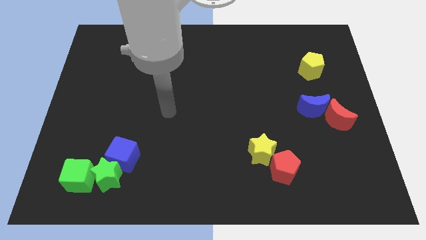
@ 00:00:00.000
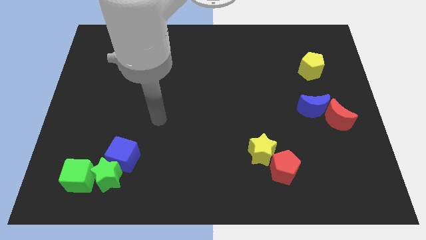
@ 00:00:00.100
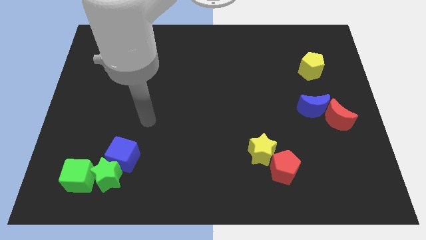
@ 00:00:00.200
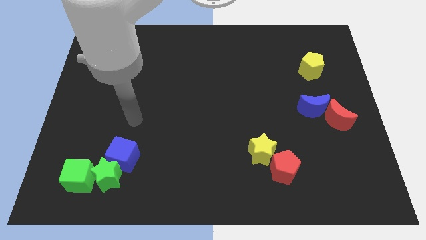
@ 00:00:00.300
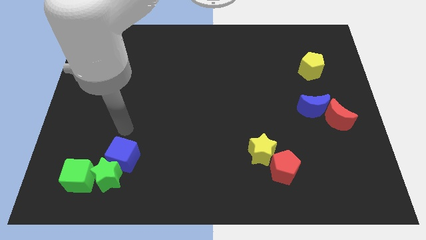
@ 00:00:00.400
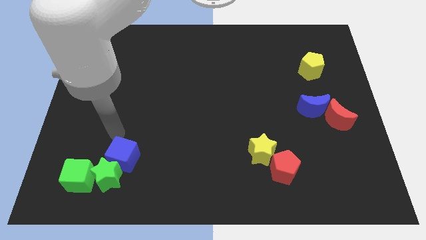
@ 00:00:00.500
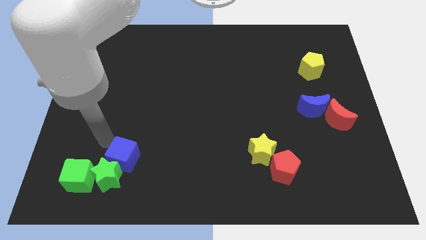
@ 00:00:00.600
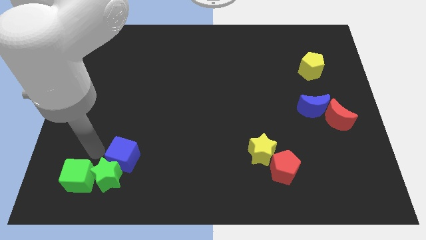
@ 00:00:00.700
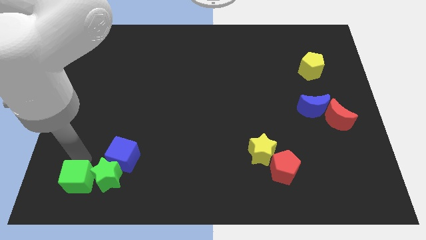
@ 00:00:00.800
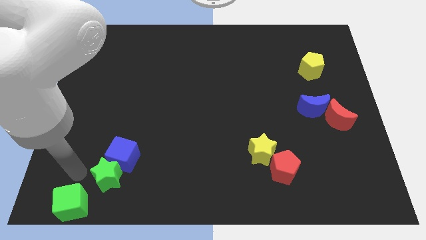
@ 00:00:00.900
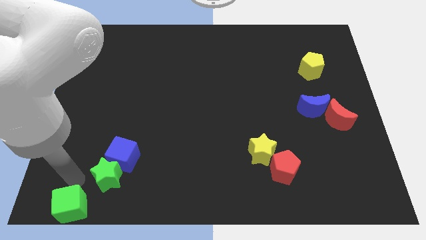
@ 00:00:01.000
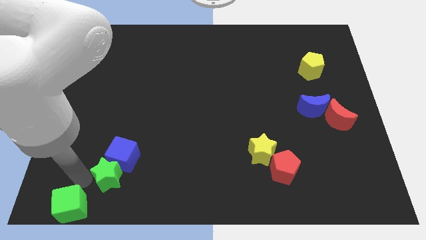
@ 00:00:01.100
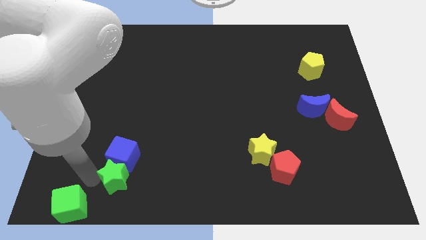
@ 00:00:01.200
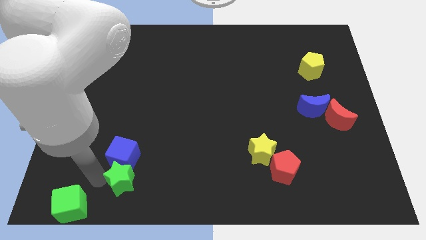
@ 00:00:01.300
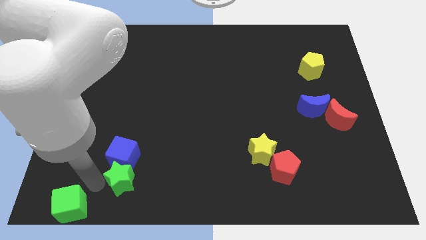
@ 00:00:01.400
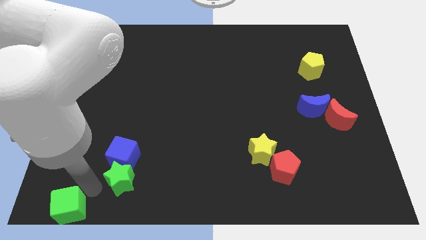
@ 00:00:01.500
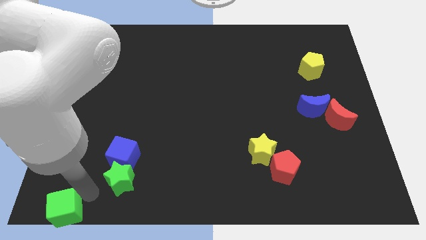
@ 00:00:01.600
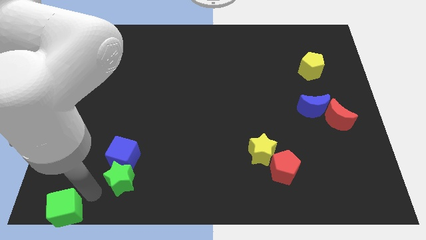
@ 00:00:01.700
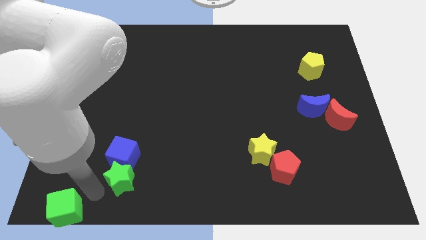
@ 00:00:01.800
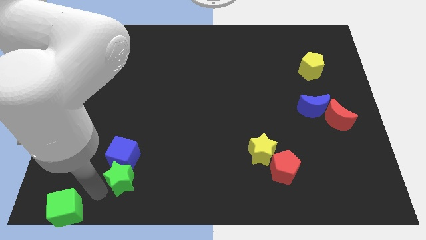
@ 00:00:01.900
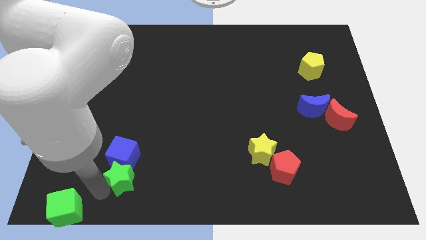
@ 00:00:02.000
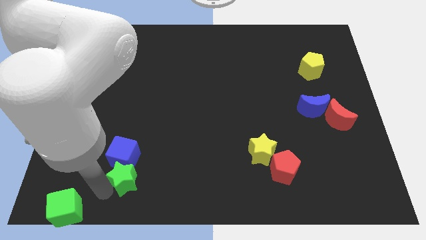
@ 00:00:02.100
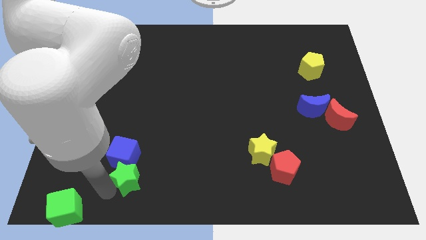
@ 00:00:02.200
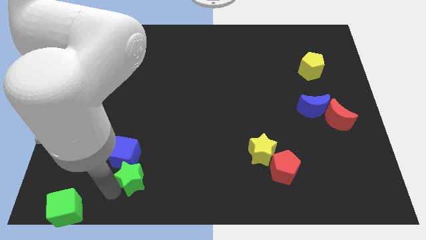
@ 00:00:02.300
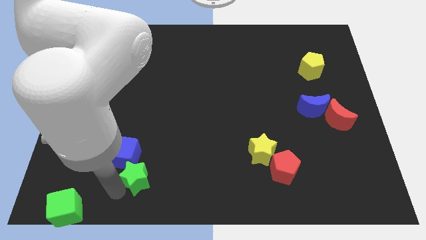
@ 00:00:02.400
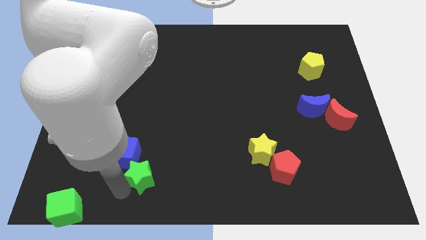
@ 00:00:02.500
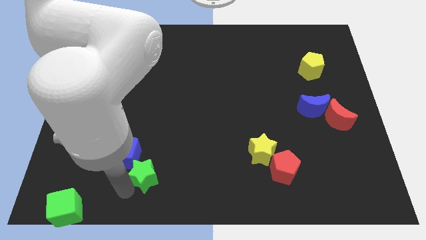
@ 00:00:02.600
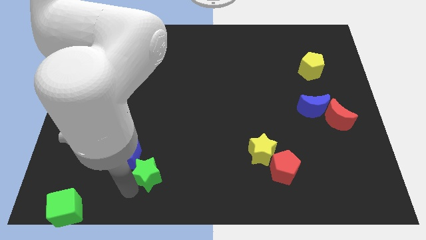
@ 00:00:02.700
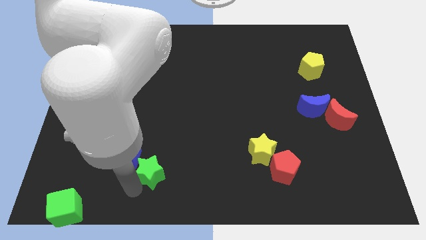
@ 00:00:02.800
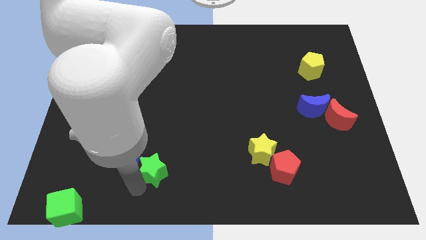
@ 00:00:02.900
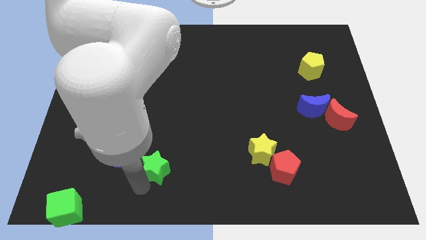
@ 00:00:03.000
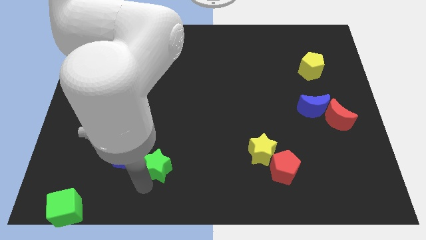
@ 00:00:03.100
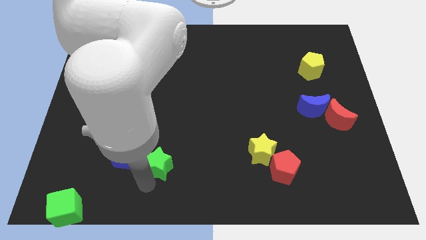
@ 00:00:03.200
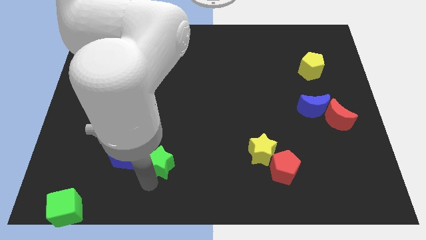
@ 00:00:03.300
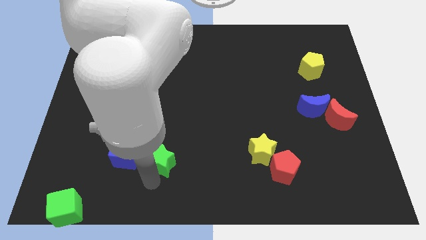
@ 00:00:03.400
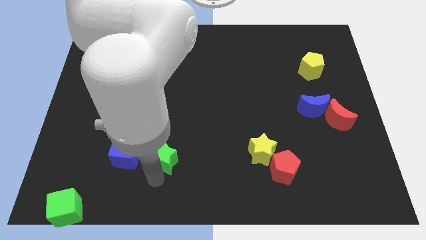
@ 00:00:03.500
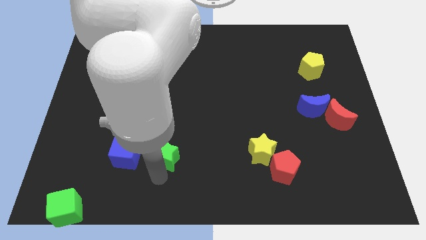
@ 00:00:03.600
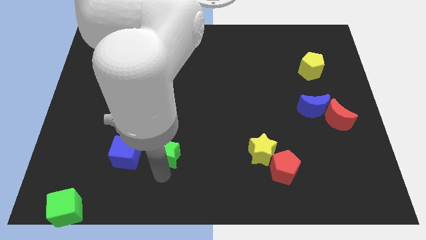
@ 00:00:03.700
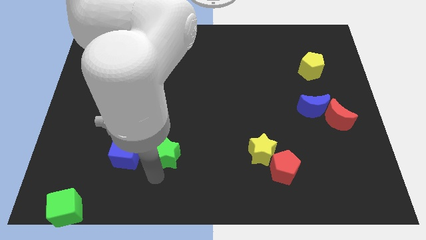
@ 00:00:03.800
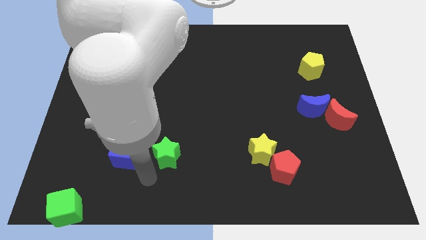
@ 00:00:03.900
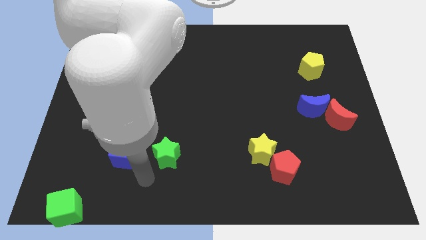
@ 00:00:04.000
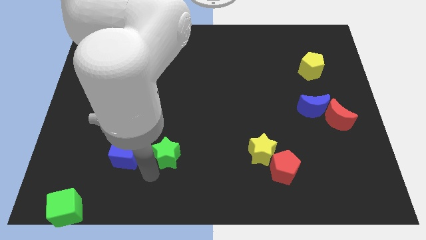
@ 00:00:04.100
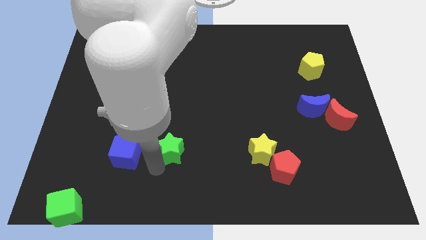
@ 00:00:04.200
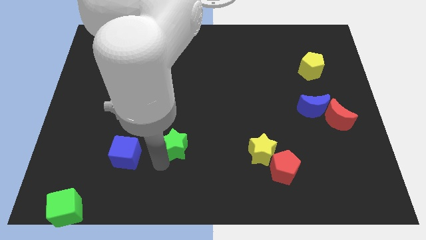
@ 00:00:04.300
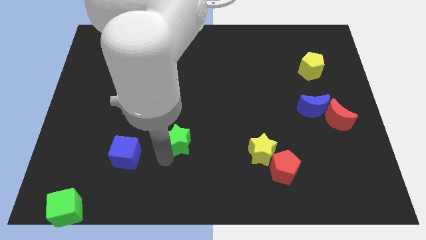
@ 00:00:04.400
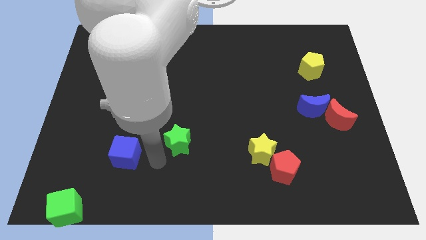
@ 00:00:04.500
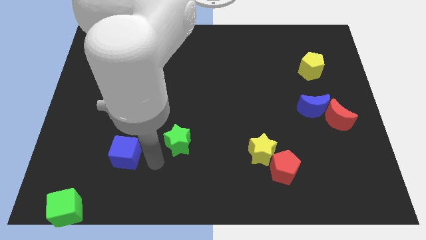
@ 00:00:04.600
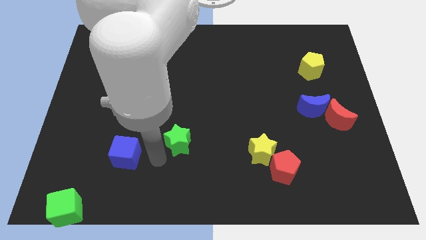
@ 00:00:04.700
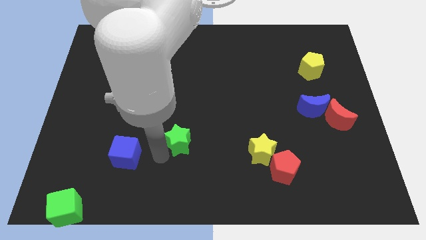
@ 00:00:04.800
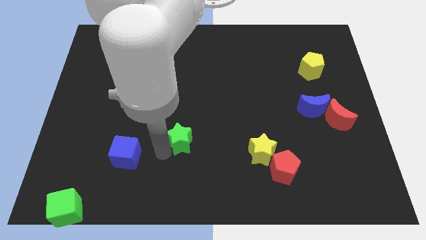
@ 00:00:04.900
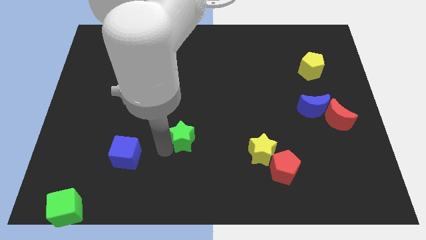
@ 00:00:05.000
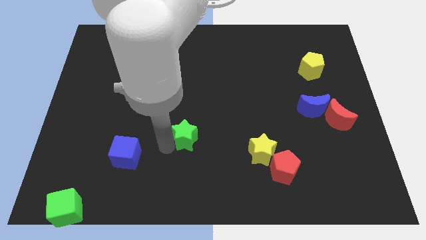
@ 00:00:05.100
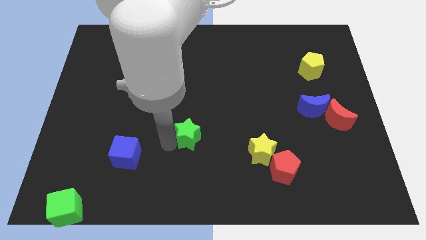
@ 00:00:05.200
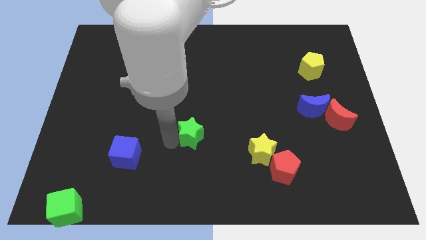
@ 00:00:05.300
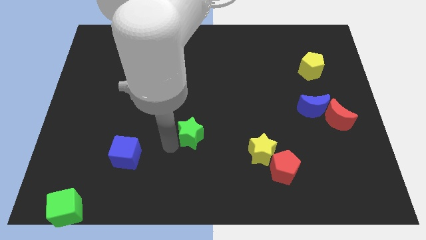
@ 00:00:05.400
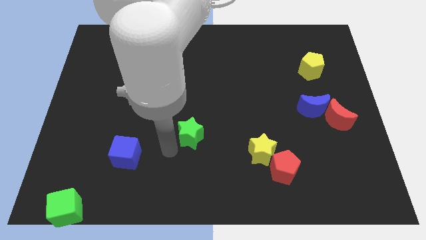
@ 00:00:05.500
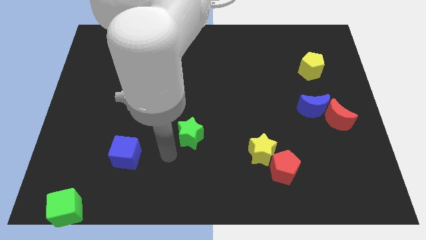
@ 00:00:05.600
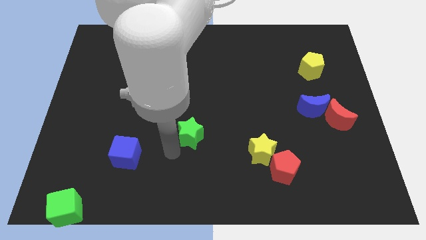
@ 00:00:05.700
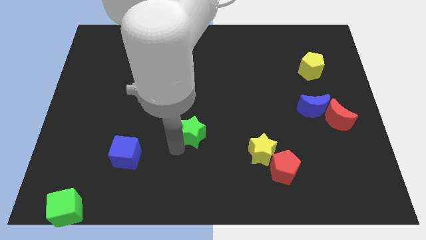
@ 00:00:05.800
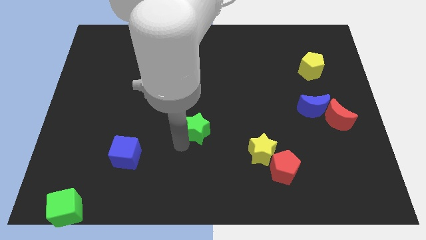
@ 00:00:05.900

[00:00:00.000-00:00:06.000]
slide the green star up and right diagonally

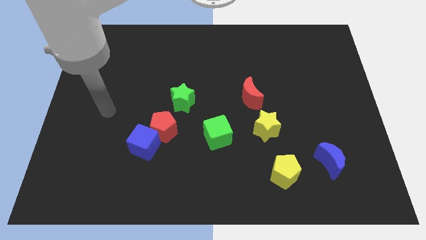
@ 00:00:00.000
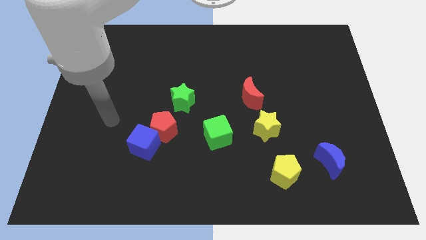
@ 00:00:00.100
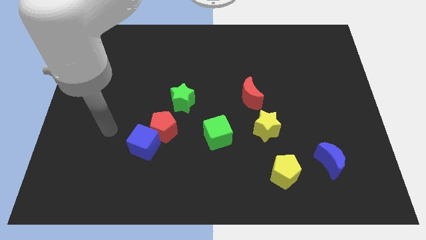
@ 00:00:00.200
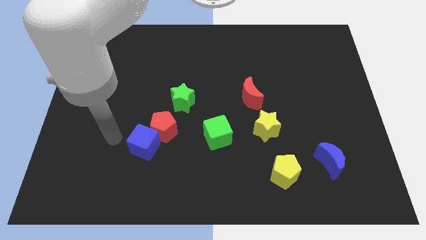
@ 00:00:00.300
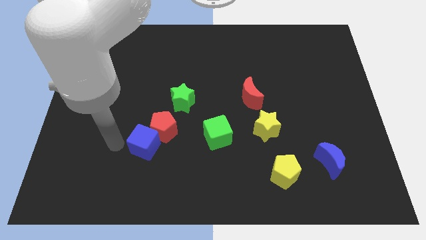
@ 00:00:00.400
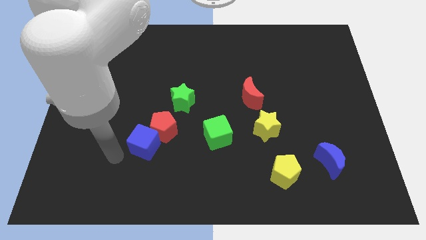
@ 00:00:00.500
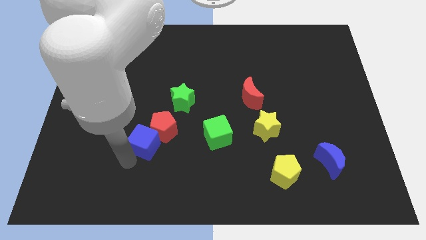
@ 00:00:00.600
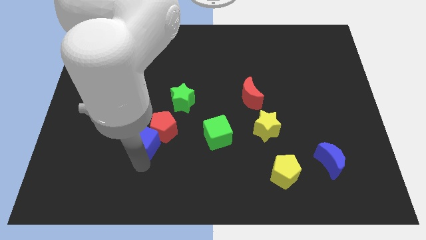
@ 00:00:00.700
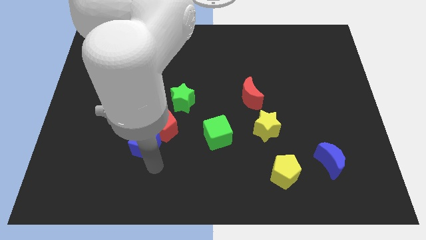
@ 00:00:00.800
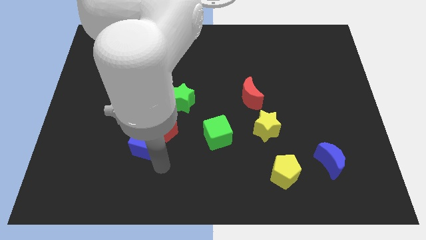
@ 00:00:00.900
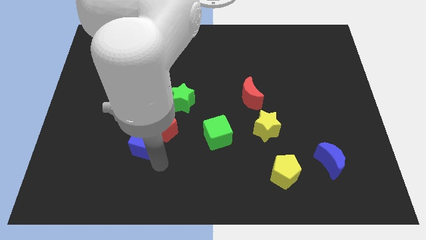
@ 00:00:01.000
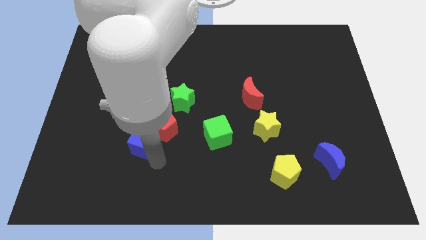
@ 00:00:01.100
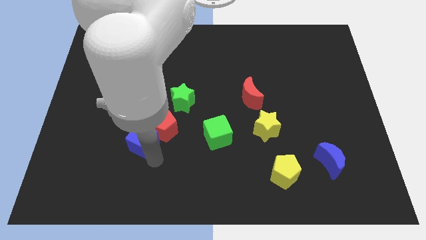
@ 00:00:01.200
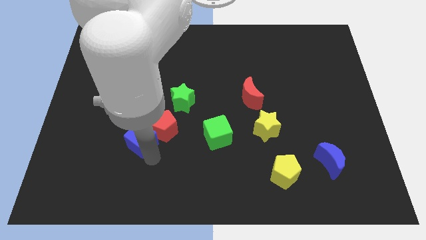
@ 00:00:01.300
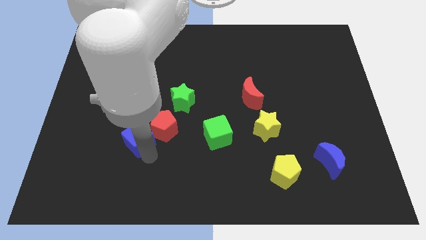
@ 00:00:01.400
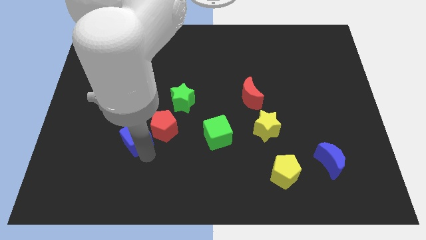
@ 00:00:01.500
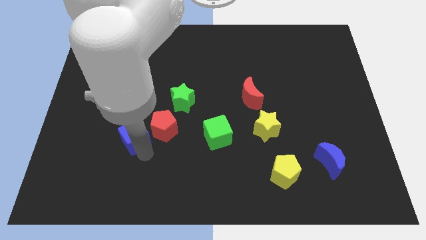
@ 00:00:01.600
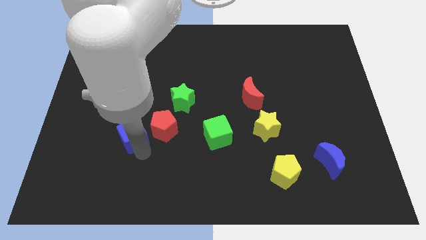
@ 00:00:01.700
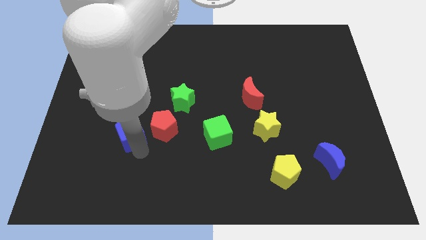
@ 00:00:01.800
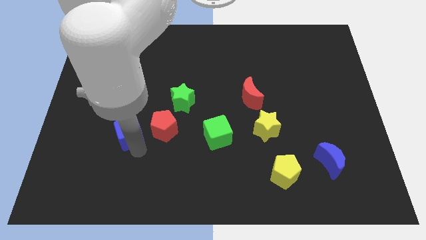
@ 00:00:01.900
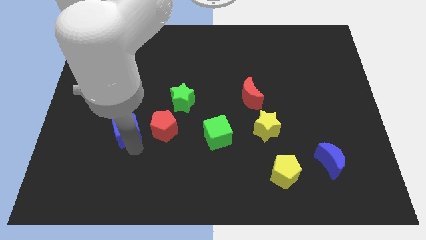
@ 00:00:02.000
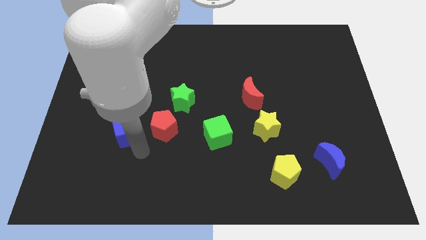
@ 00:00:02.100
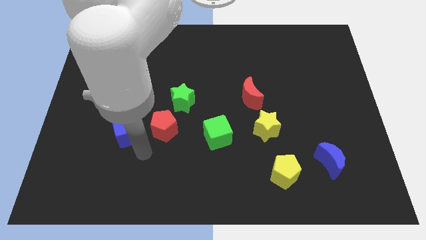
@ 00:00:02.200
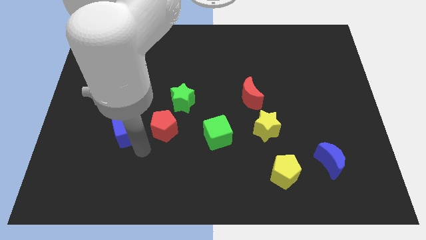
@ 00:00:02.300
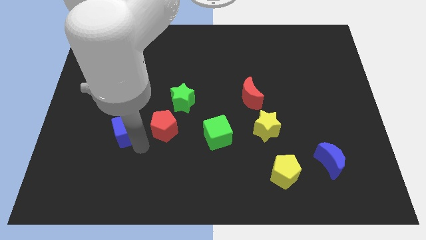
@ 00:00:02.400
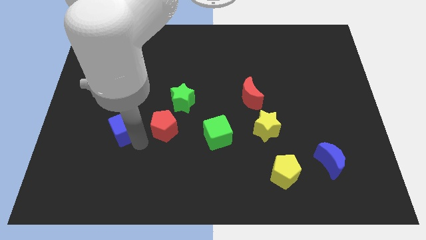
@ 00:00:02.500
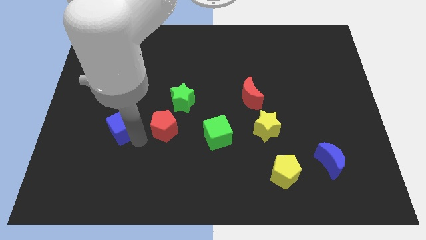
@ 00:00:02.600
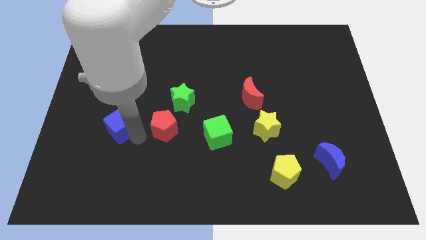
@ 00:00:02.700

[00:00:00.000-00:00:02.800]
move the blue cube upwards and left a bit
